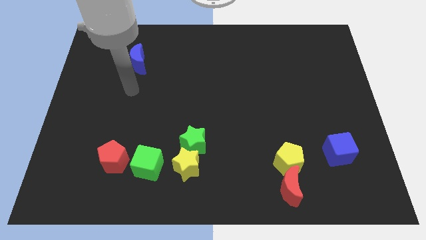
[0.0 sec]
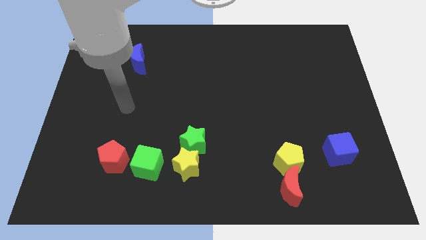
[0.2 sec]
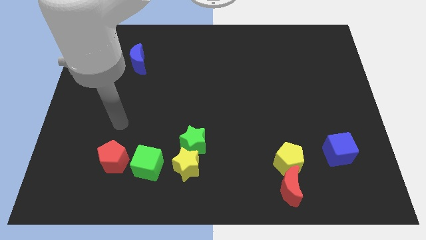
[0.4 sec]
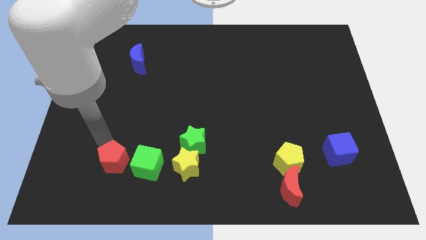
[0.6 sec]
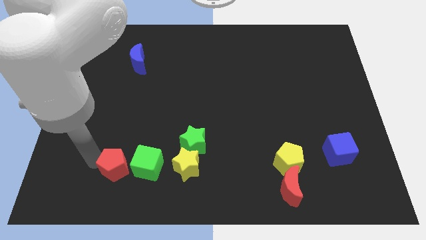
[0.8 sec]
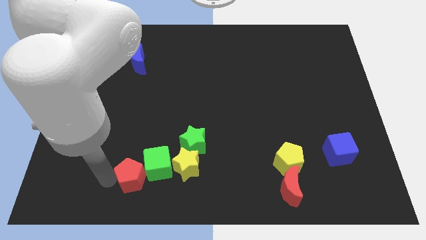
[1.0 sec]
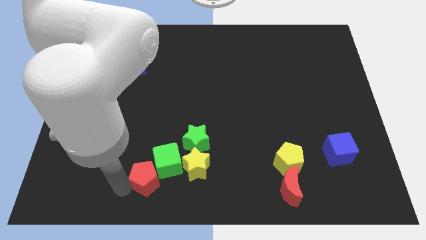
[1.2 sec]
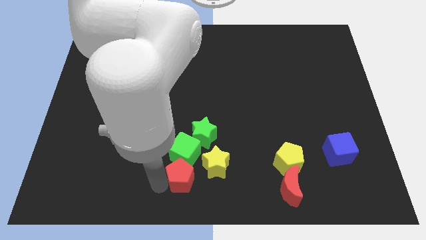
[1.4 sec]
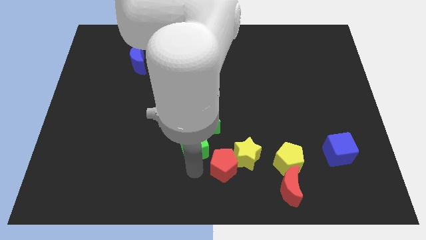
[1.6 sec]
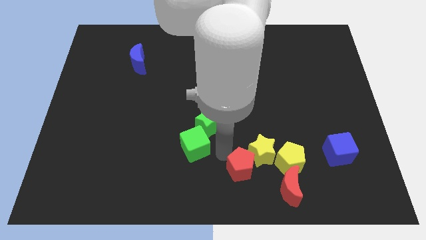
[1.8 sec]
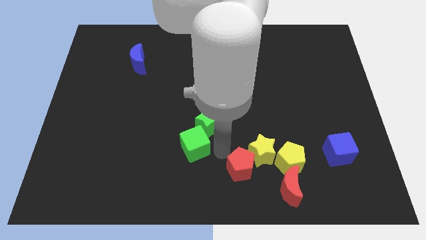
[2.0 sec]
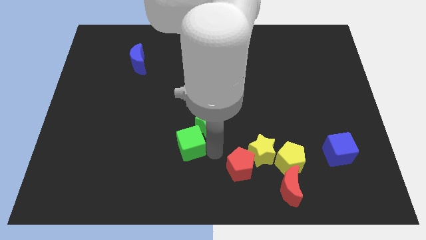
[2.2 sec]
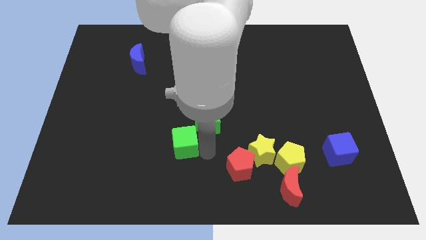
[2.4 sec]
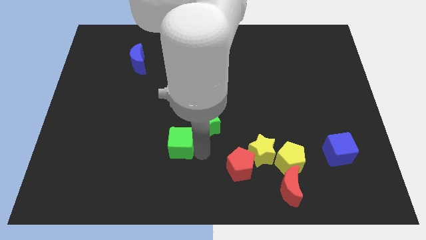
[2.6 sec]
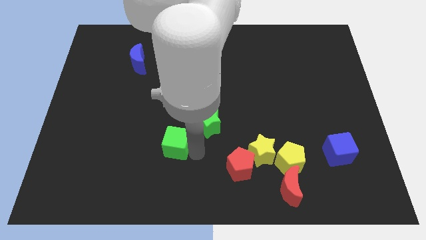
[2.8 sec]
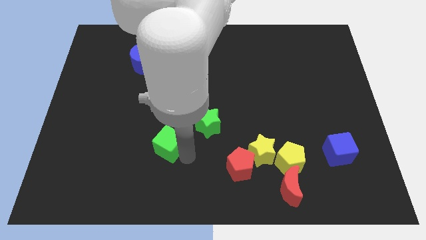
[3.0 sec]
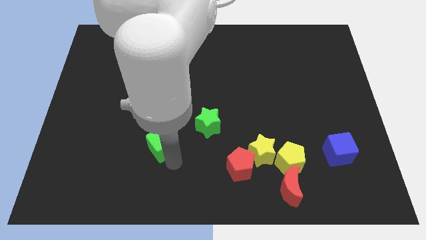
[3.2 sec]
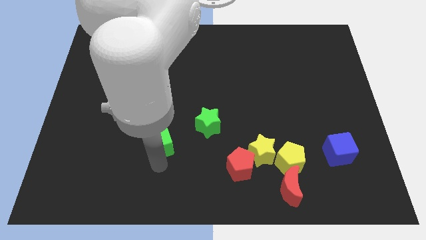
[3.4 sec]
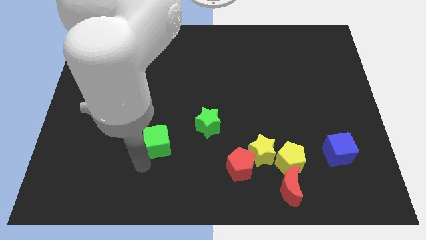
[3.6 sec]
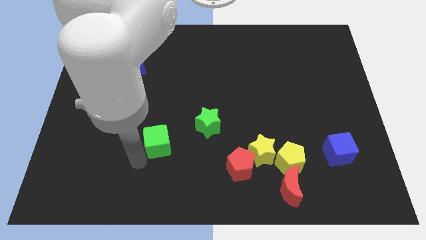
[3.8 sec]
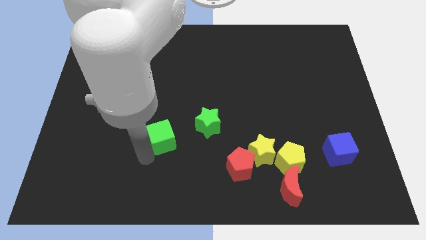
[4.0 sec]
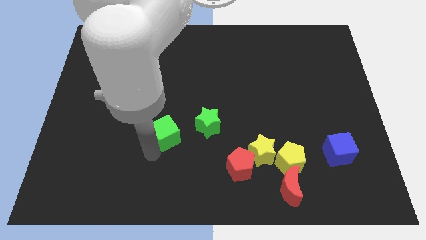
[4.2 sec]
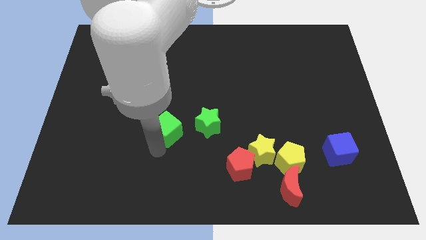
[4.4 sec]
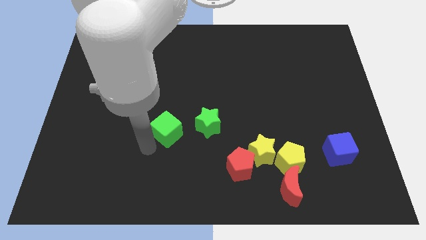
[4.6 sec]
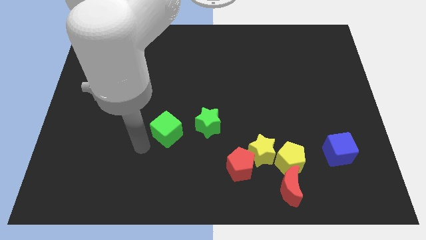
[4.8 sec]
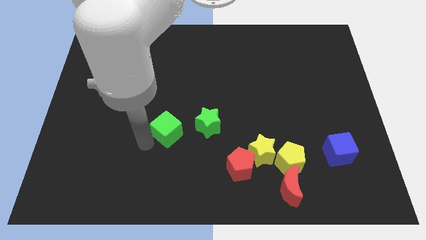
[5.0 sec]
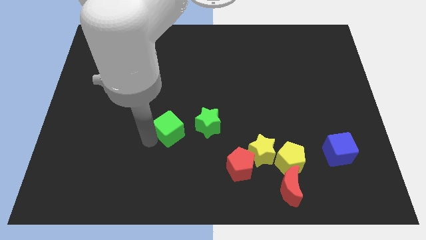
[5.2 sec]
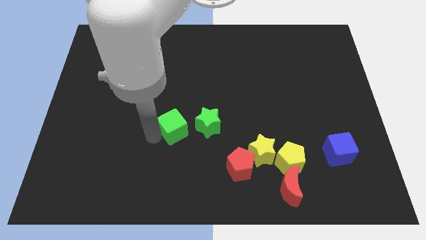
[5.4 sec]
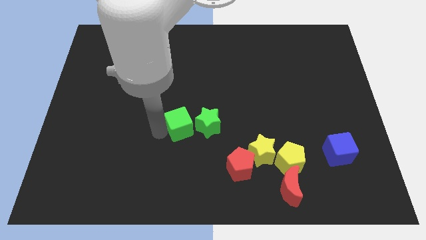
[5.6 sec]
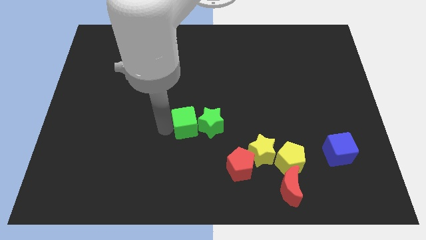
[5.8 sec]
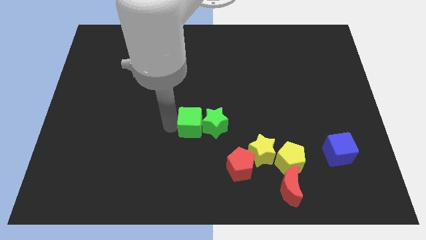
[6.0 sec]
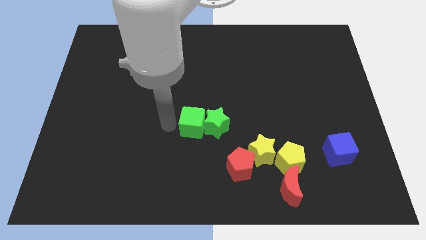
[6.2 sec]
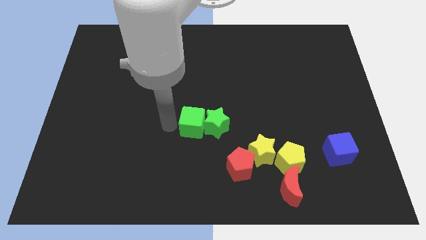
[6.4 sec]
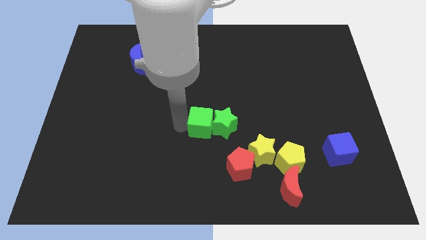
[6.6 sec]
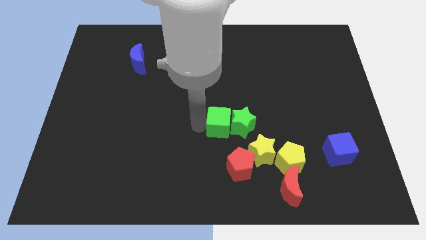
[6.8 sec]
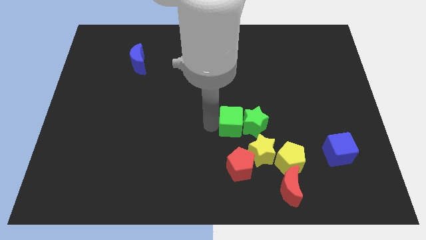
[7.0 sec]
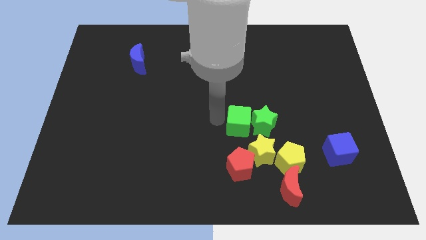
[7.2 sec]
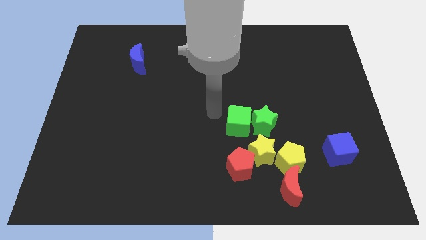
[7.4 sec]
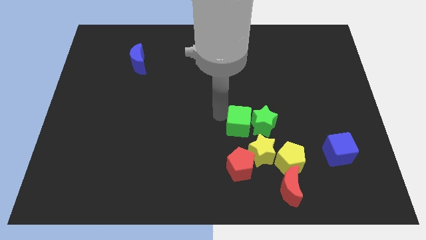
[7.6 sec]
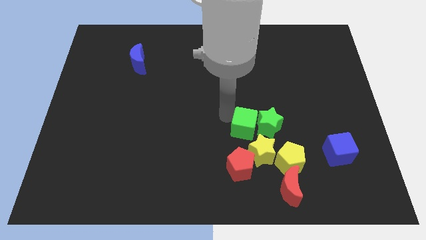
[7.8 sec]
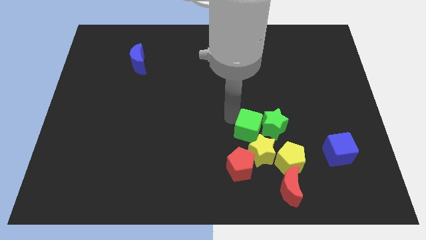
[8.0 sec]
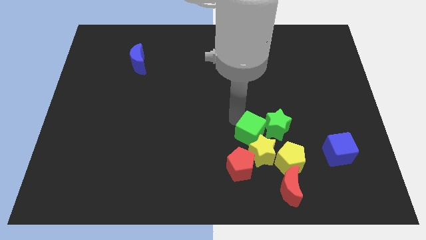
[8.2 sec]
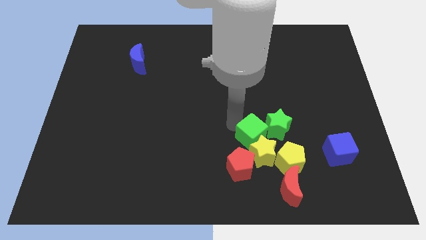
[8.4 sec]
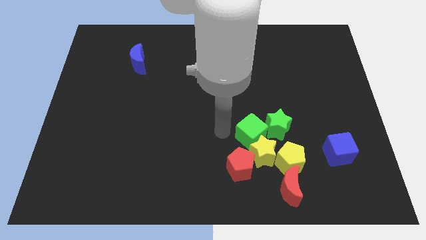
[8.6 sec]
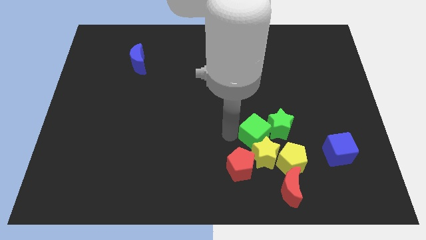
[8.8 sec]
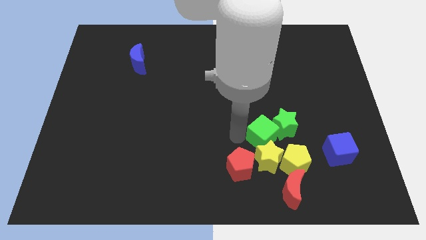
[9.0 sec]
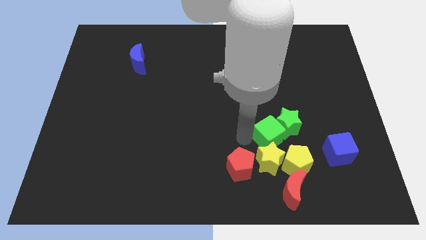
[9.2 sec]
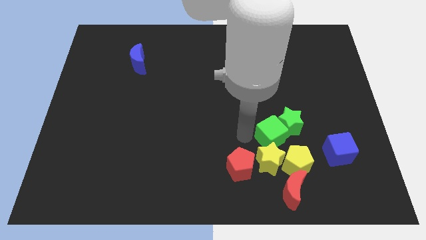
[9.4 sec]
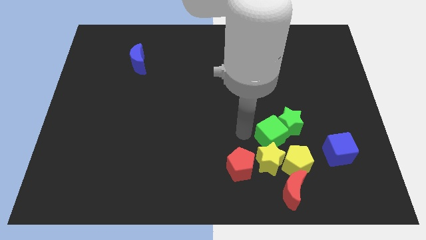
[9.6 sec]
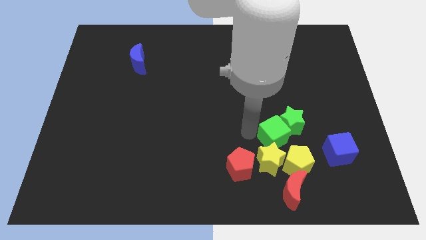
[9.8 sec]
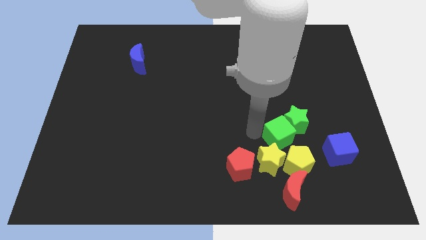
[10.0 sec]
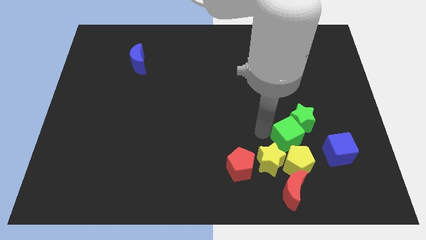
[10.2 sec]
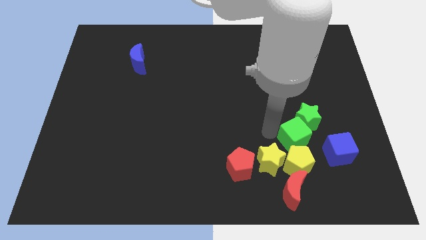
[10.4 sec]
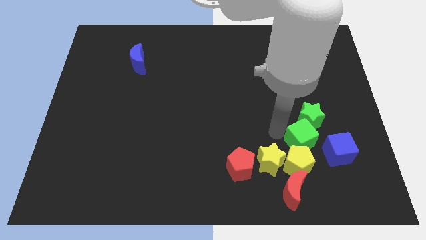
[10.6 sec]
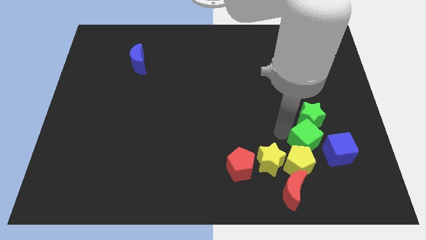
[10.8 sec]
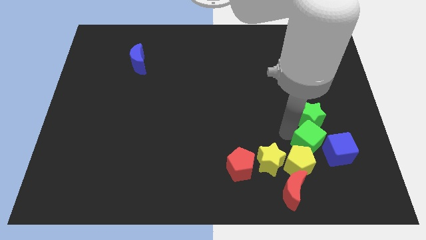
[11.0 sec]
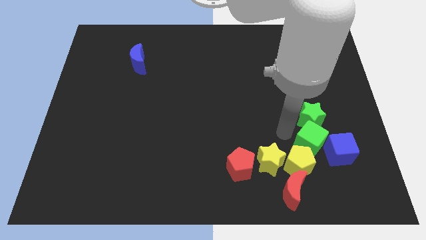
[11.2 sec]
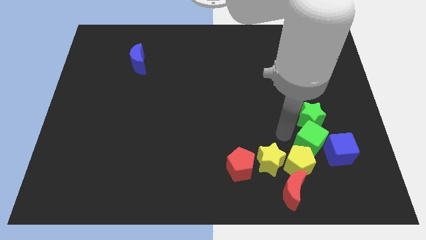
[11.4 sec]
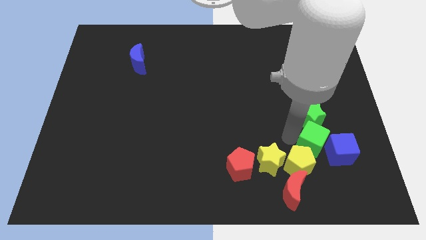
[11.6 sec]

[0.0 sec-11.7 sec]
slide the green cube to the blue cube
